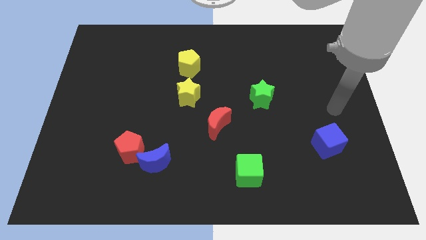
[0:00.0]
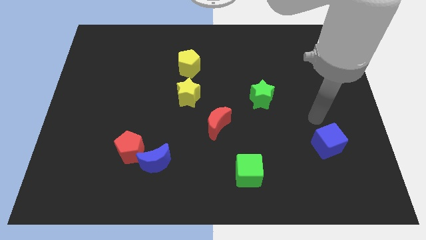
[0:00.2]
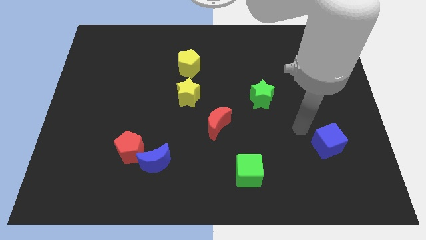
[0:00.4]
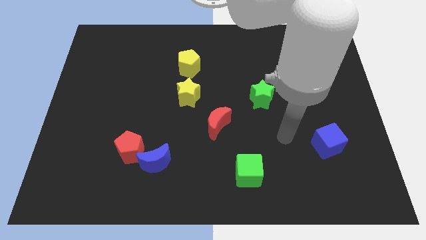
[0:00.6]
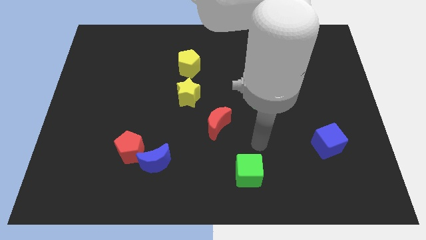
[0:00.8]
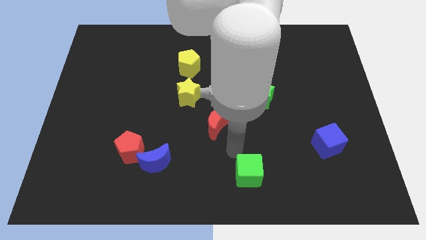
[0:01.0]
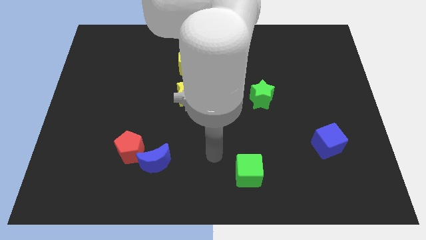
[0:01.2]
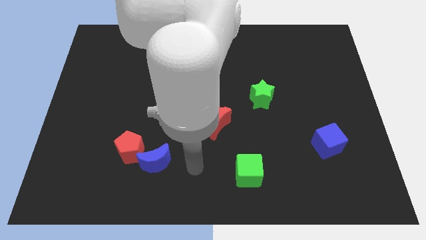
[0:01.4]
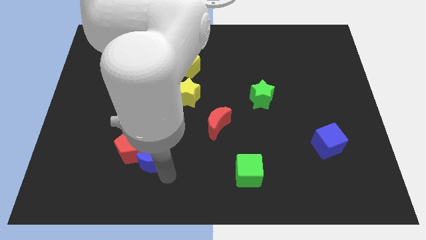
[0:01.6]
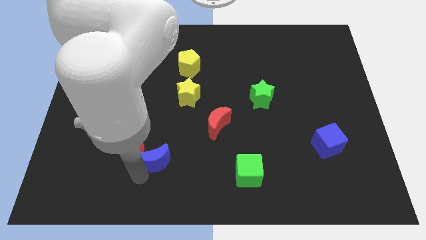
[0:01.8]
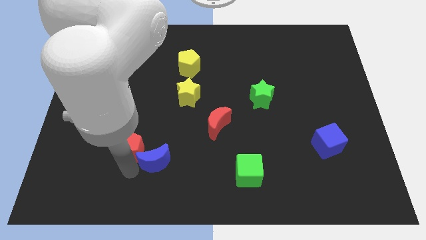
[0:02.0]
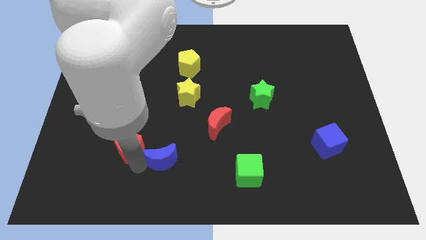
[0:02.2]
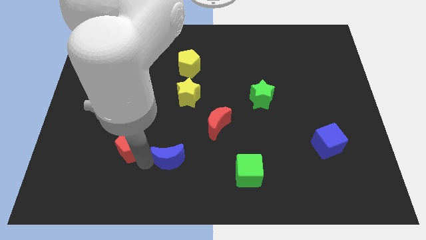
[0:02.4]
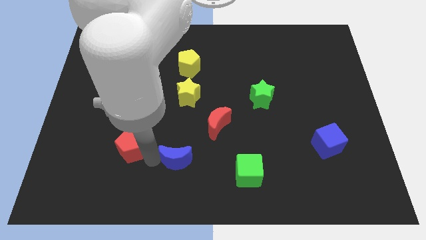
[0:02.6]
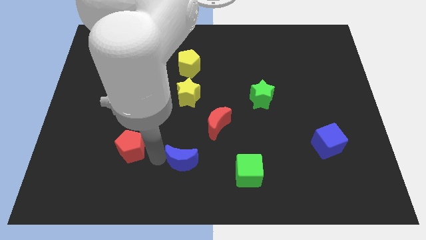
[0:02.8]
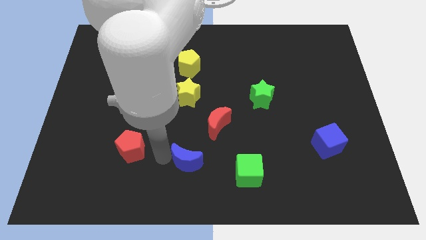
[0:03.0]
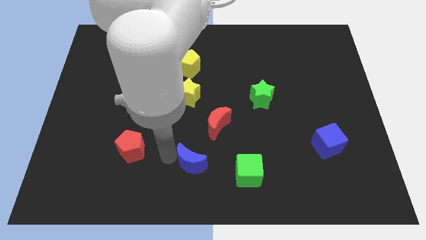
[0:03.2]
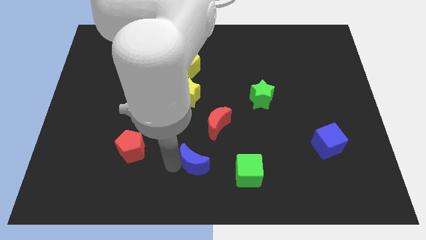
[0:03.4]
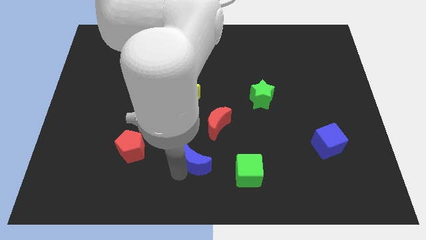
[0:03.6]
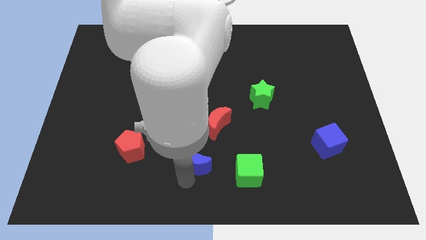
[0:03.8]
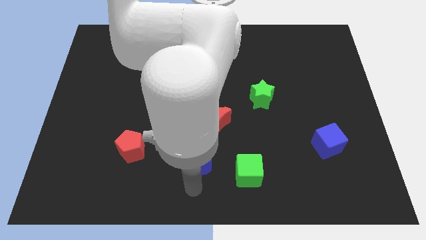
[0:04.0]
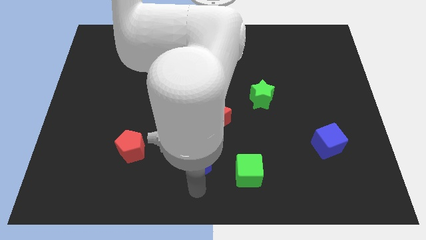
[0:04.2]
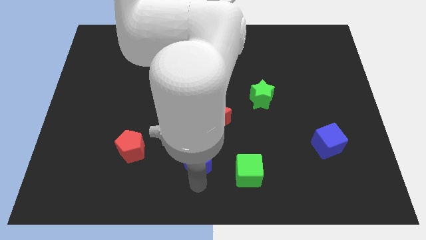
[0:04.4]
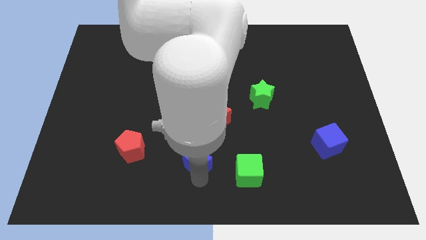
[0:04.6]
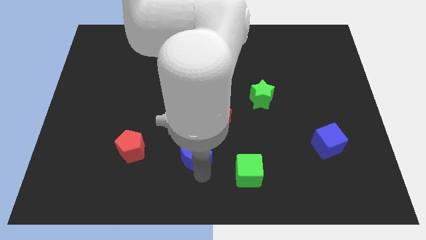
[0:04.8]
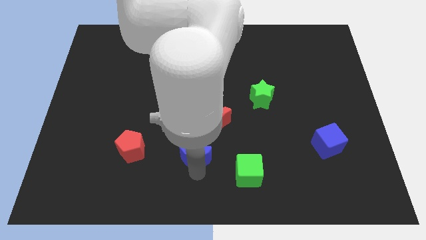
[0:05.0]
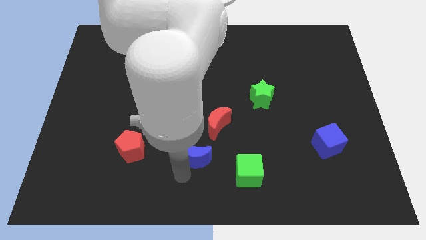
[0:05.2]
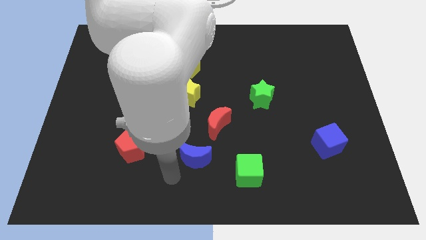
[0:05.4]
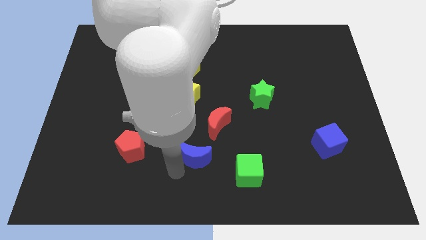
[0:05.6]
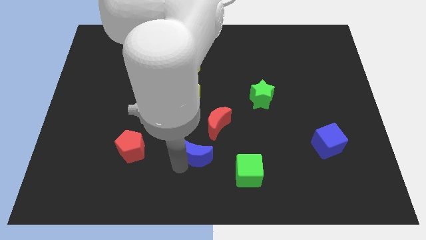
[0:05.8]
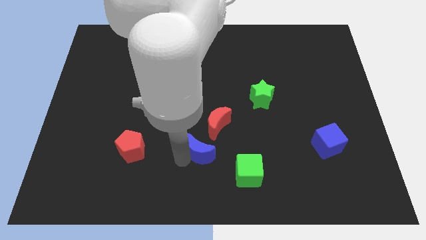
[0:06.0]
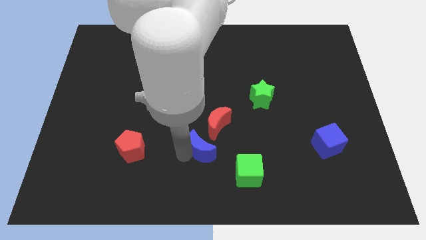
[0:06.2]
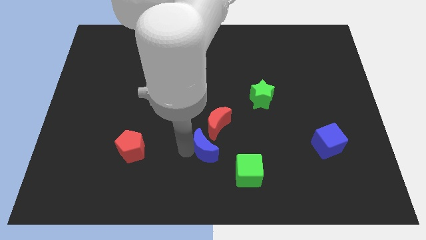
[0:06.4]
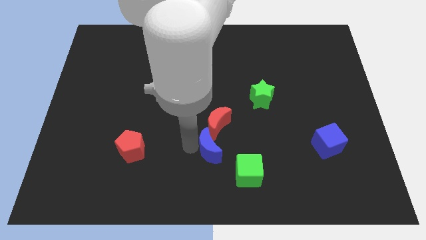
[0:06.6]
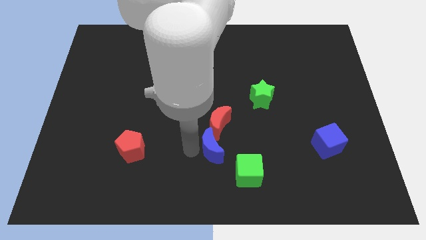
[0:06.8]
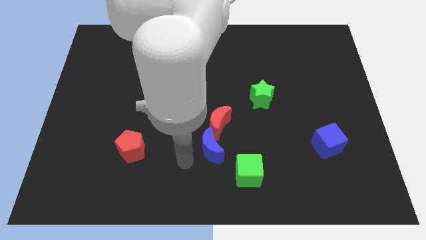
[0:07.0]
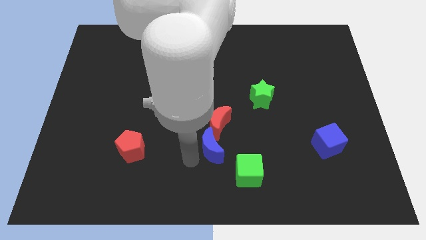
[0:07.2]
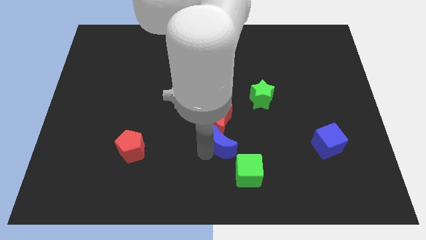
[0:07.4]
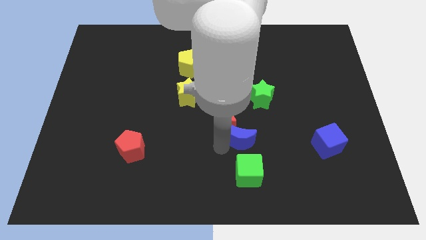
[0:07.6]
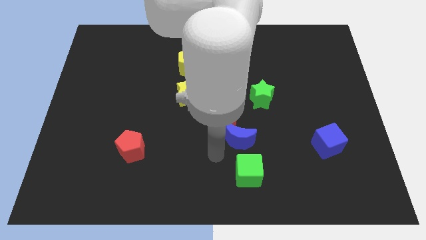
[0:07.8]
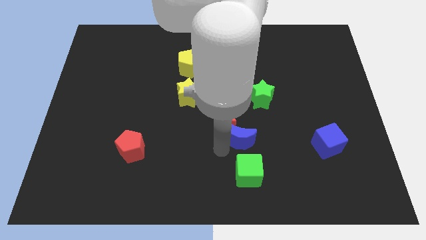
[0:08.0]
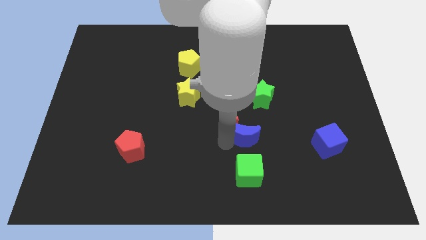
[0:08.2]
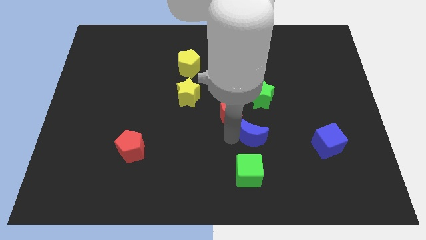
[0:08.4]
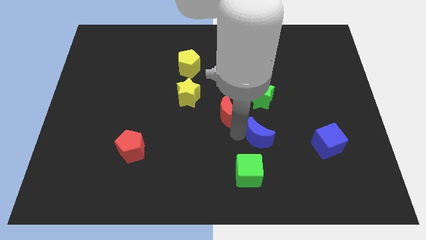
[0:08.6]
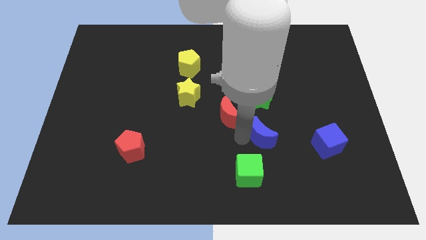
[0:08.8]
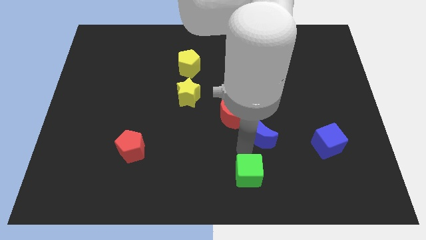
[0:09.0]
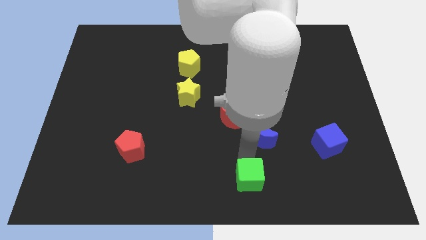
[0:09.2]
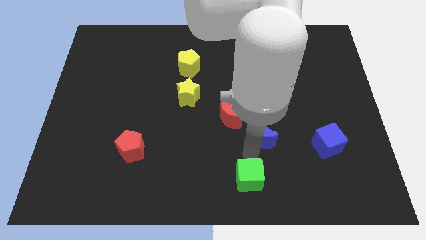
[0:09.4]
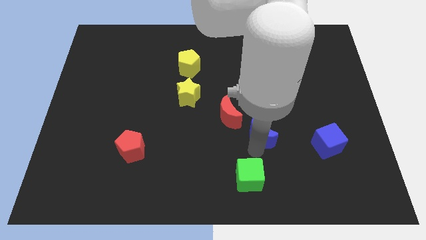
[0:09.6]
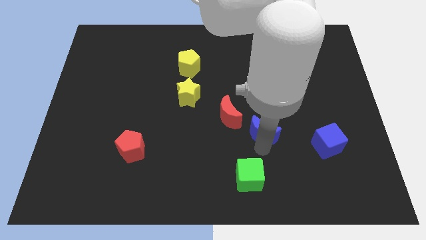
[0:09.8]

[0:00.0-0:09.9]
slide the blue moon just right of the red moon
